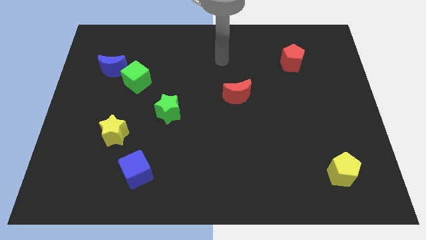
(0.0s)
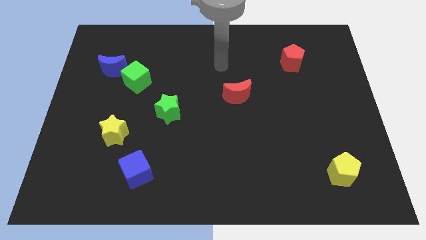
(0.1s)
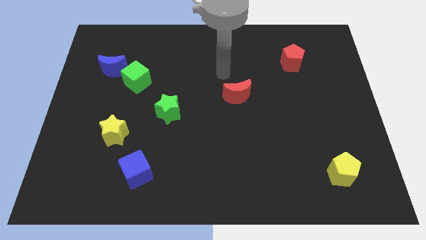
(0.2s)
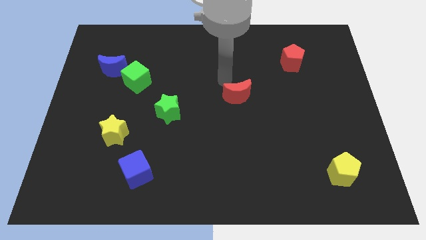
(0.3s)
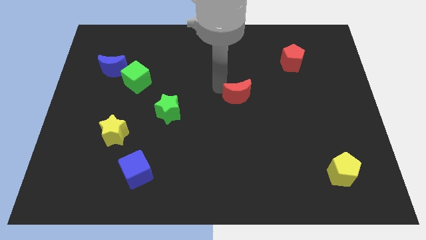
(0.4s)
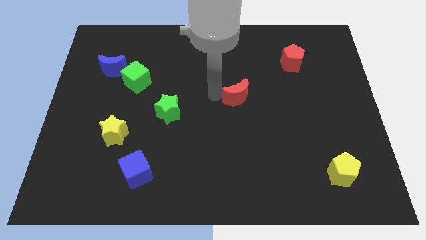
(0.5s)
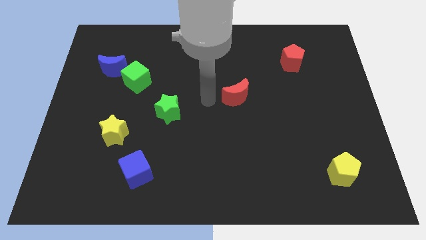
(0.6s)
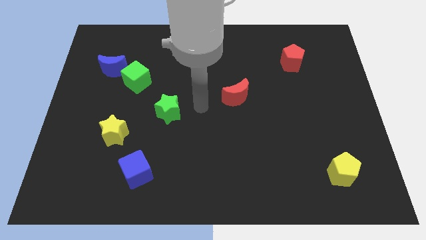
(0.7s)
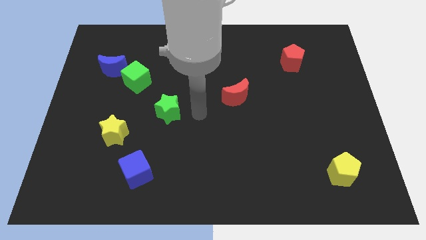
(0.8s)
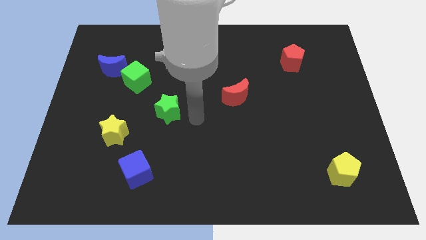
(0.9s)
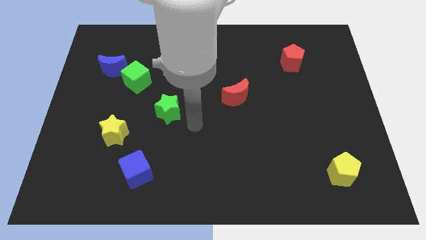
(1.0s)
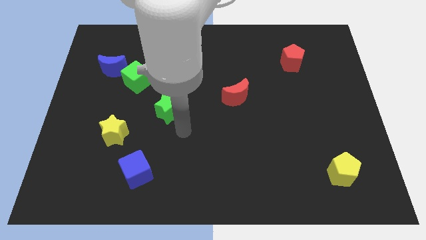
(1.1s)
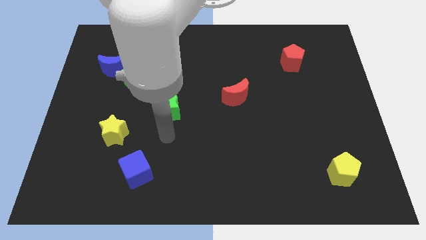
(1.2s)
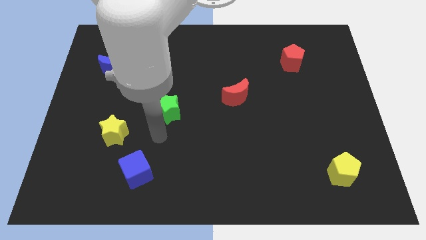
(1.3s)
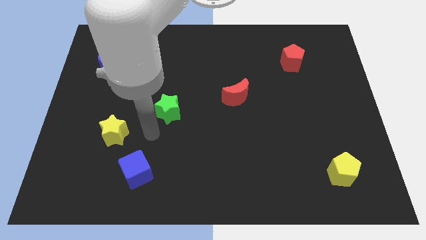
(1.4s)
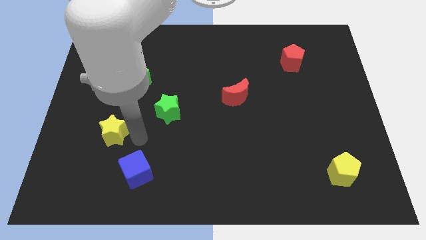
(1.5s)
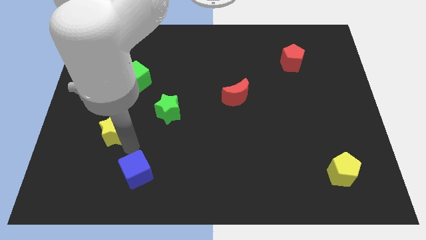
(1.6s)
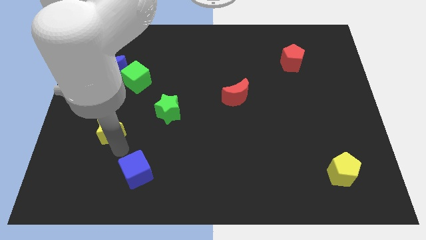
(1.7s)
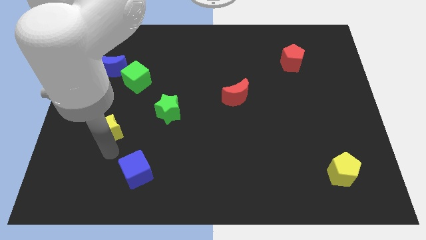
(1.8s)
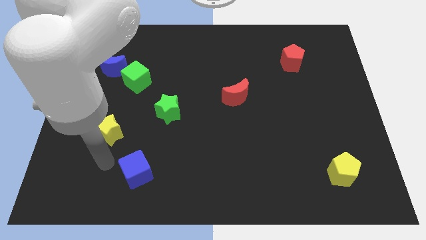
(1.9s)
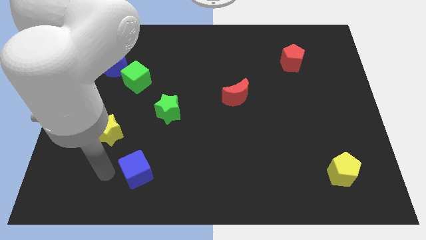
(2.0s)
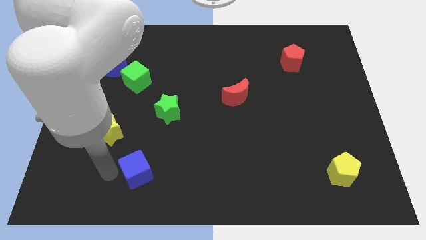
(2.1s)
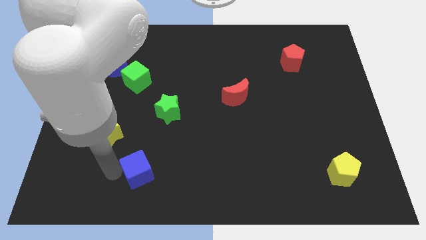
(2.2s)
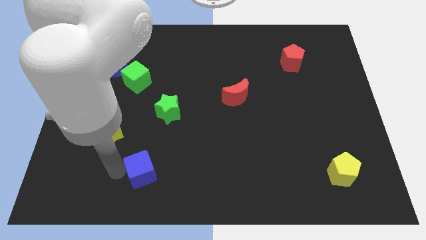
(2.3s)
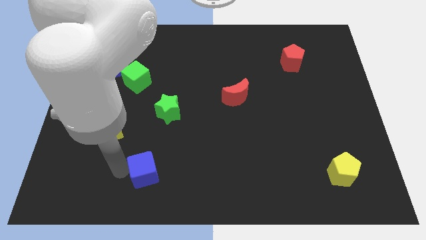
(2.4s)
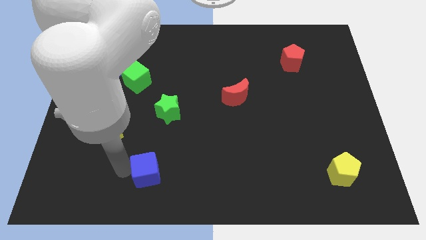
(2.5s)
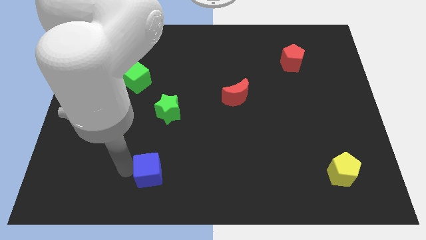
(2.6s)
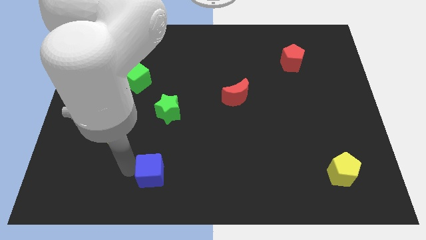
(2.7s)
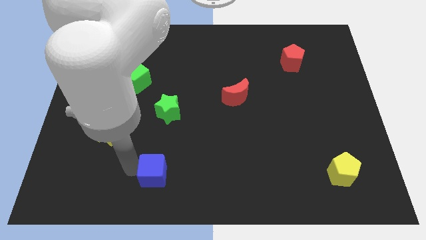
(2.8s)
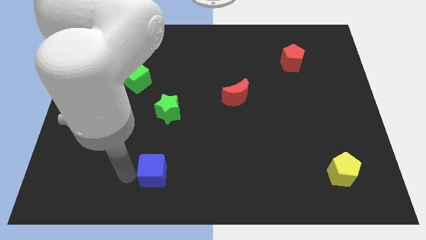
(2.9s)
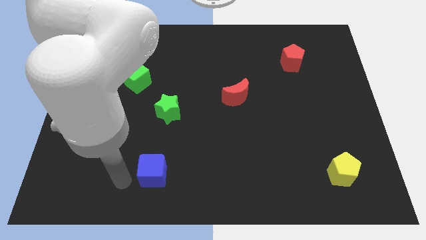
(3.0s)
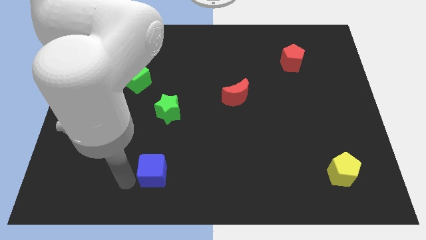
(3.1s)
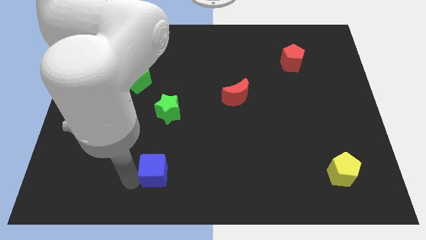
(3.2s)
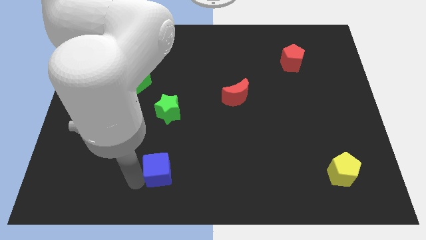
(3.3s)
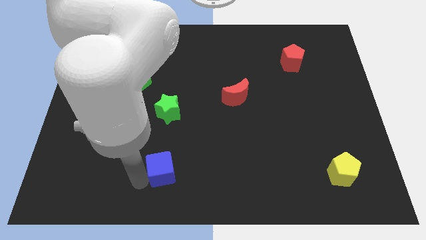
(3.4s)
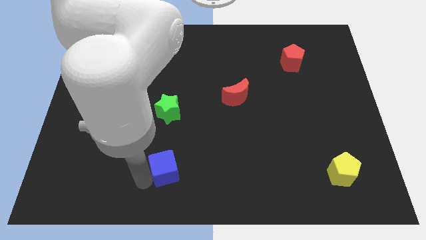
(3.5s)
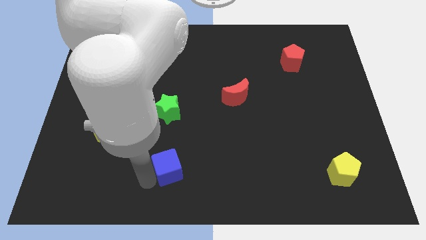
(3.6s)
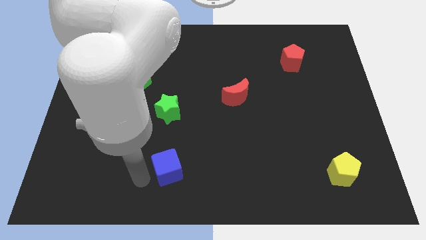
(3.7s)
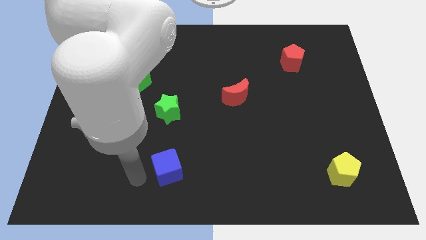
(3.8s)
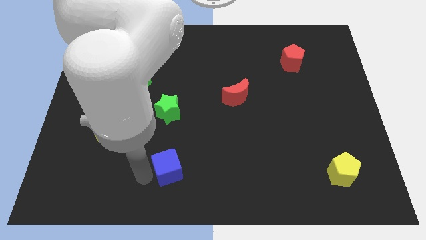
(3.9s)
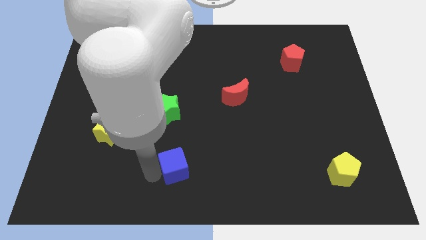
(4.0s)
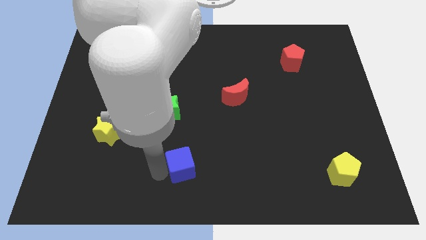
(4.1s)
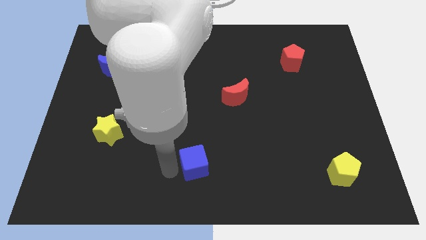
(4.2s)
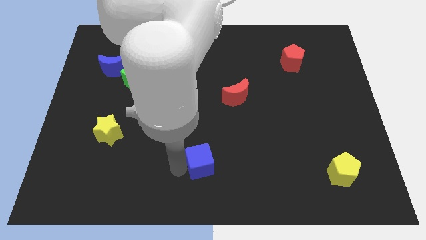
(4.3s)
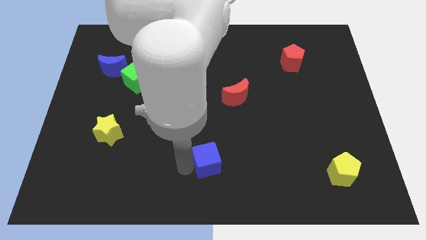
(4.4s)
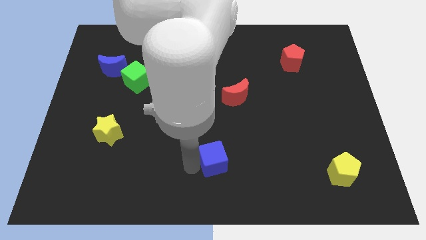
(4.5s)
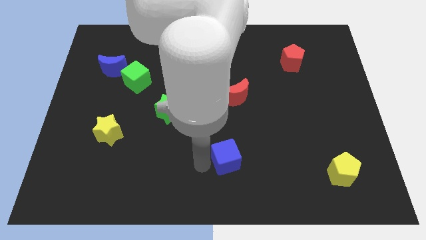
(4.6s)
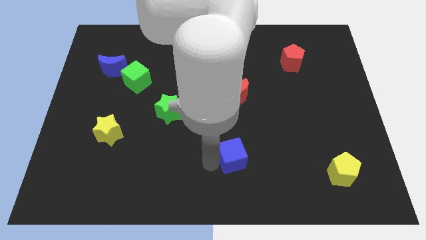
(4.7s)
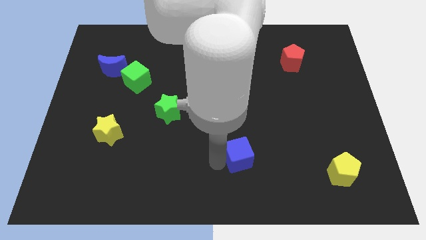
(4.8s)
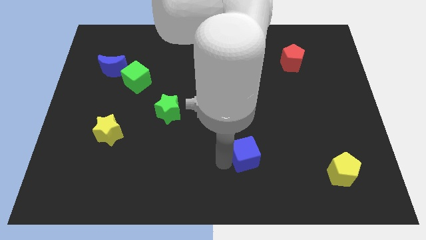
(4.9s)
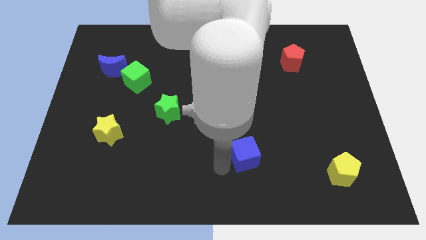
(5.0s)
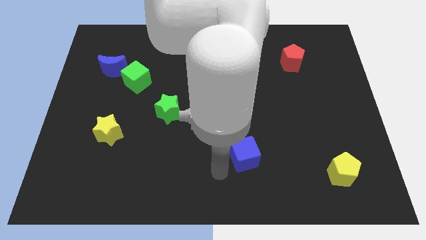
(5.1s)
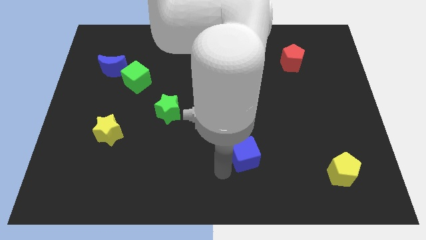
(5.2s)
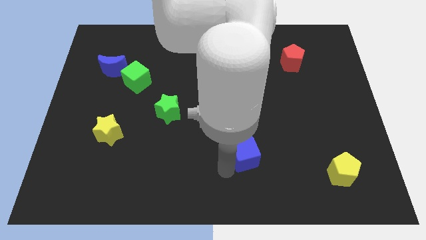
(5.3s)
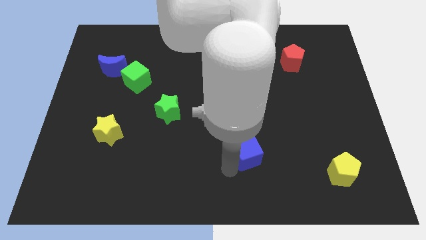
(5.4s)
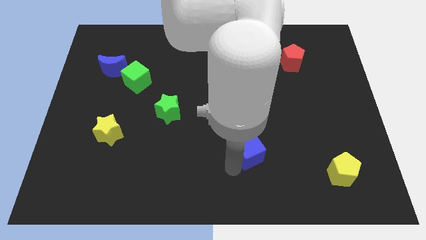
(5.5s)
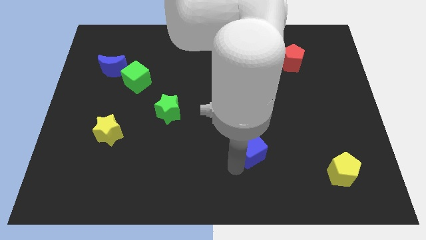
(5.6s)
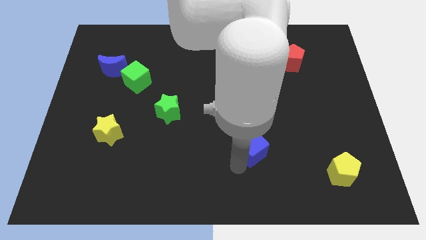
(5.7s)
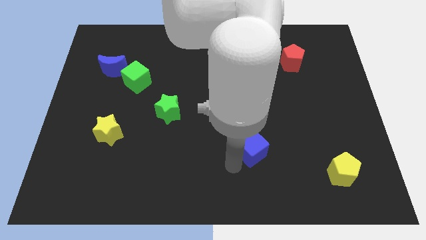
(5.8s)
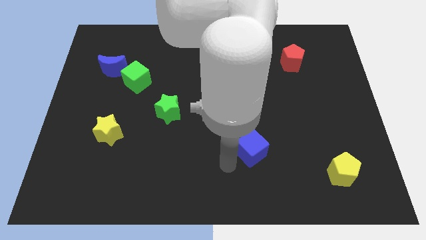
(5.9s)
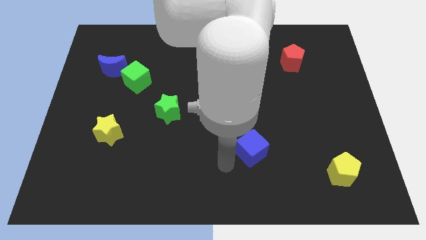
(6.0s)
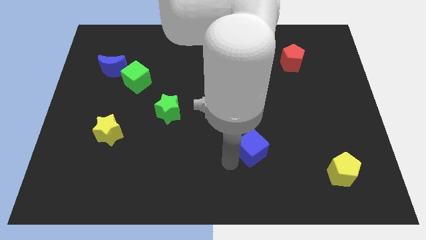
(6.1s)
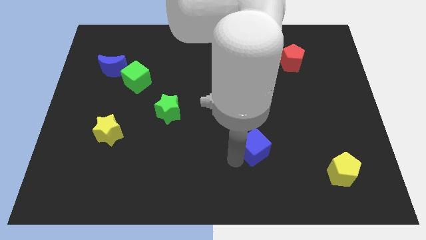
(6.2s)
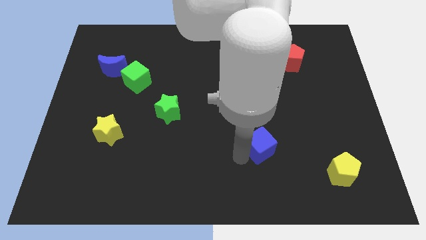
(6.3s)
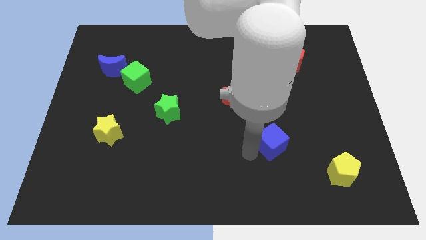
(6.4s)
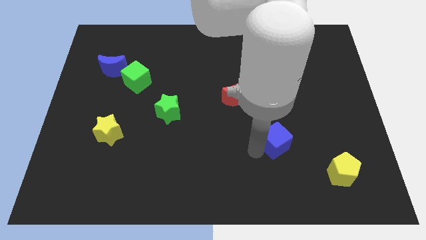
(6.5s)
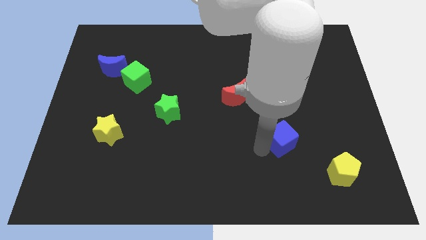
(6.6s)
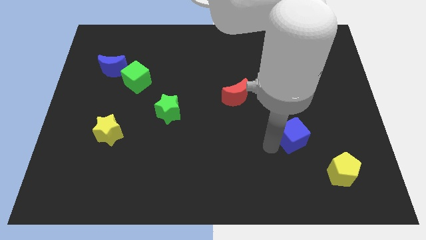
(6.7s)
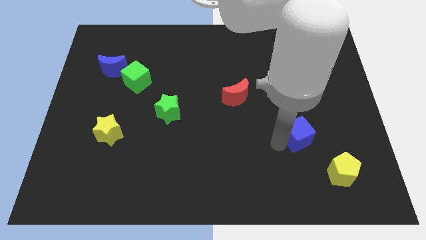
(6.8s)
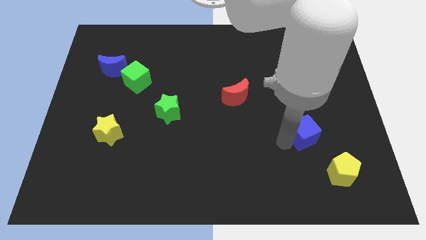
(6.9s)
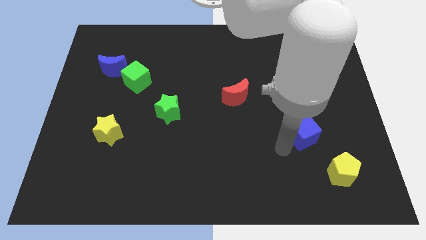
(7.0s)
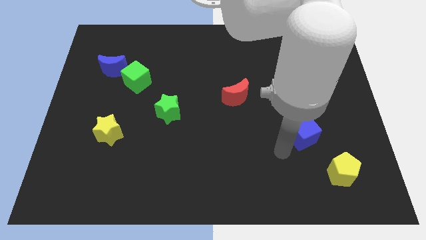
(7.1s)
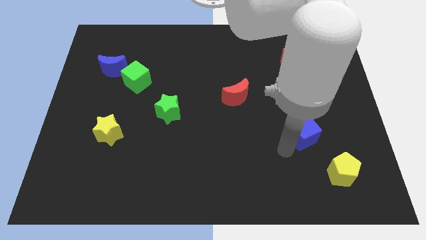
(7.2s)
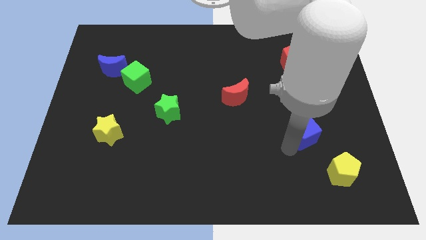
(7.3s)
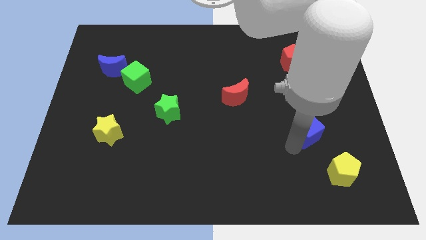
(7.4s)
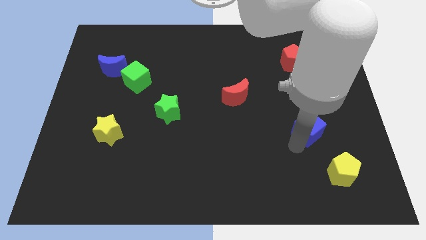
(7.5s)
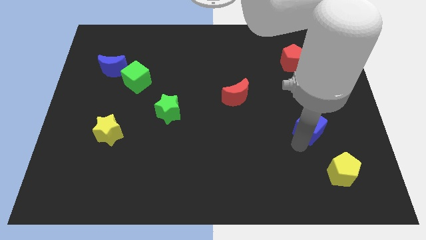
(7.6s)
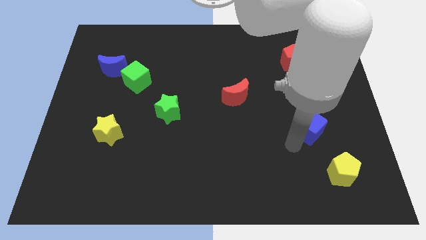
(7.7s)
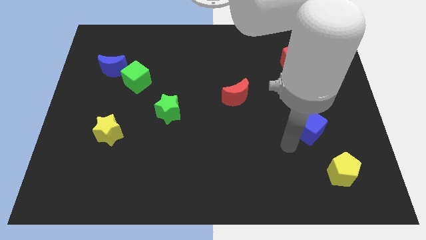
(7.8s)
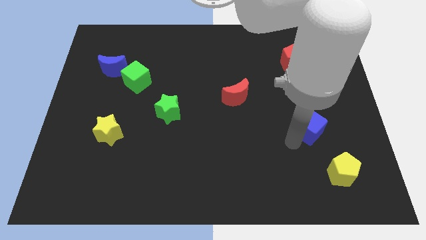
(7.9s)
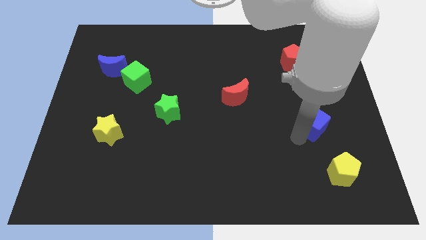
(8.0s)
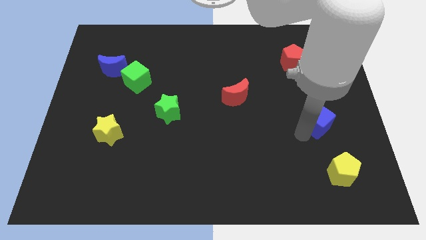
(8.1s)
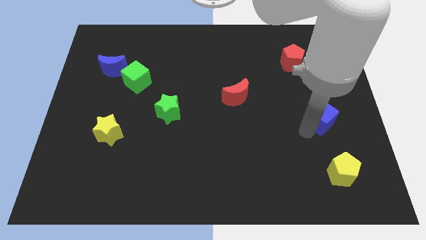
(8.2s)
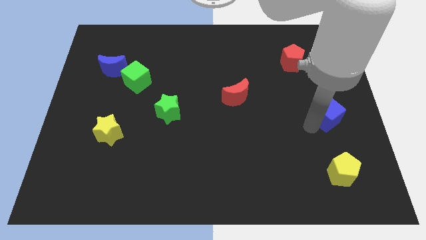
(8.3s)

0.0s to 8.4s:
put the blue cube to the right side of the board
